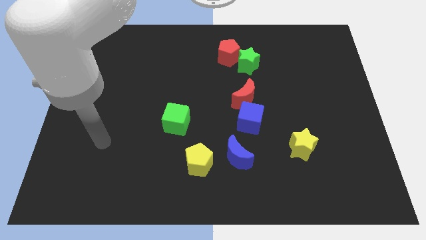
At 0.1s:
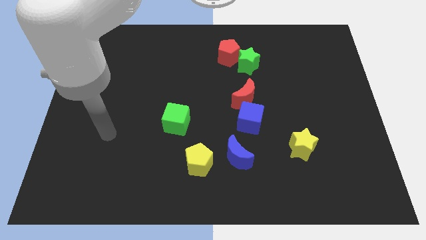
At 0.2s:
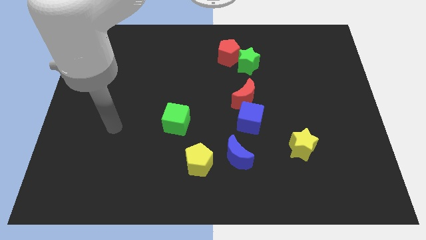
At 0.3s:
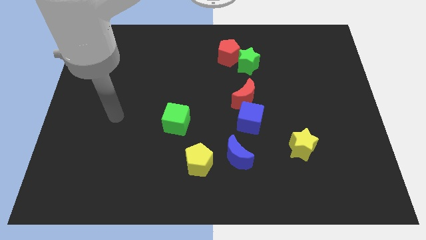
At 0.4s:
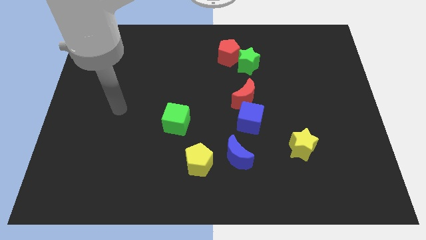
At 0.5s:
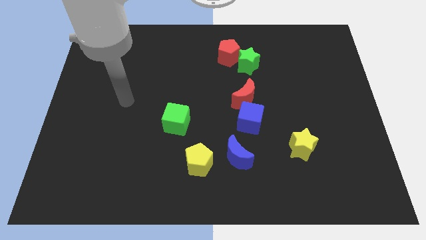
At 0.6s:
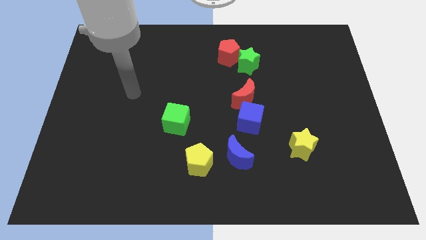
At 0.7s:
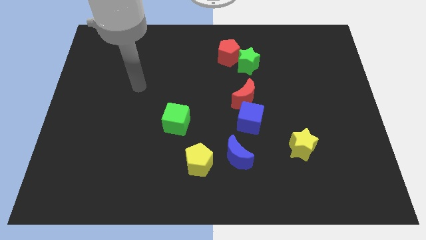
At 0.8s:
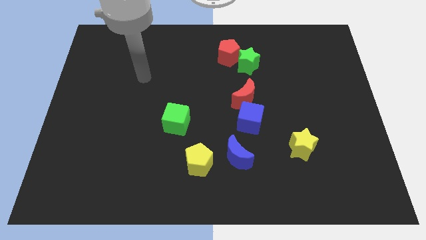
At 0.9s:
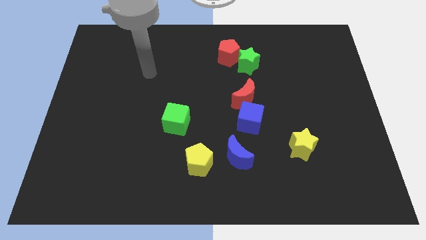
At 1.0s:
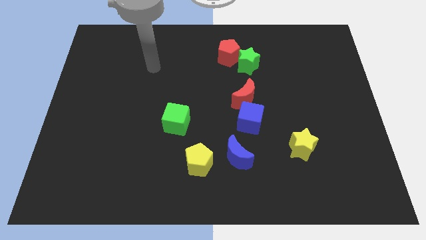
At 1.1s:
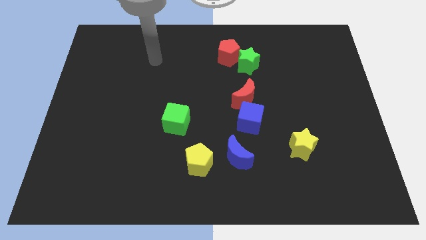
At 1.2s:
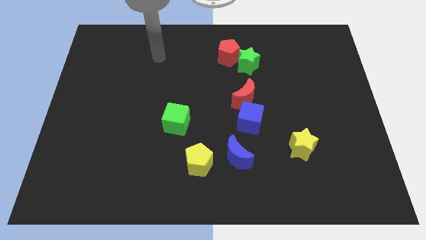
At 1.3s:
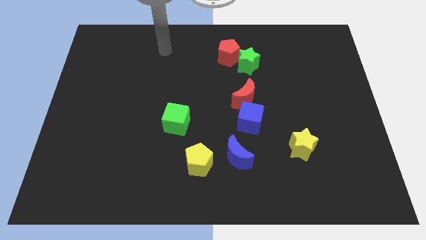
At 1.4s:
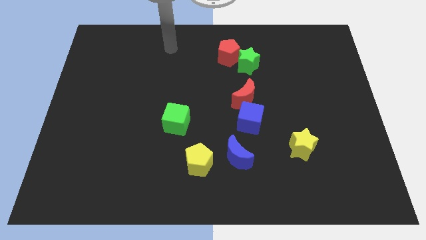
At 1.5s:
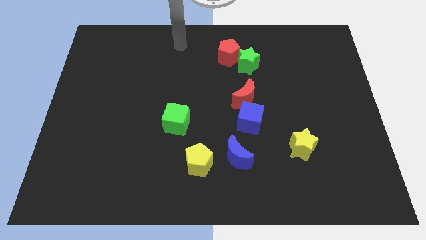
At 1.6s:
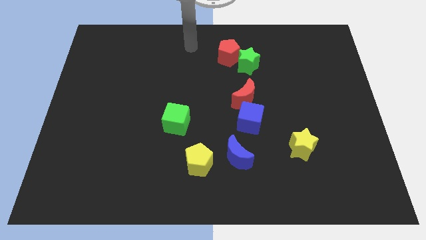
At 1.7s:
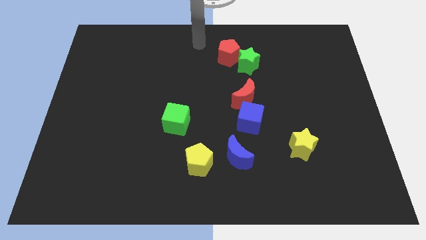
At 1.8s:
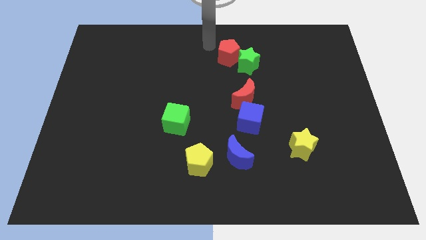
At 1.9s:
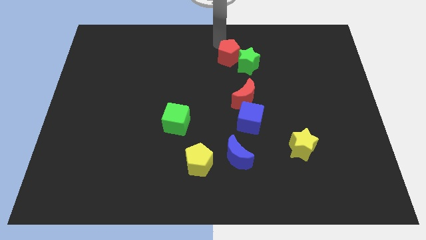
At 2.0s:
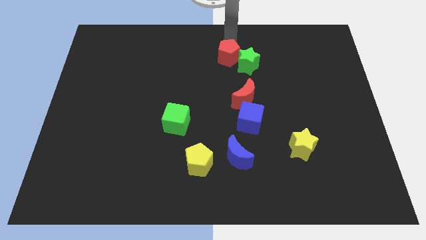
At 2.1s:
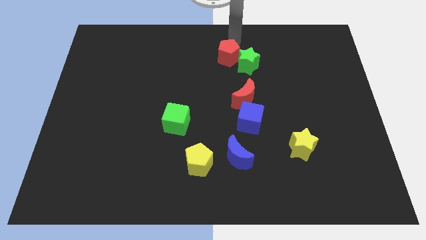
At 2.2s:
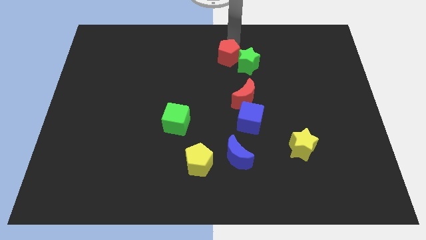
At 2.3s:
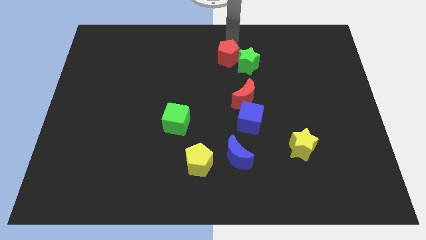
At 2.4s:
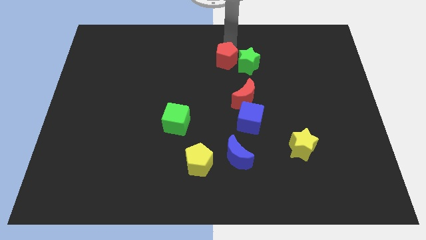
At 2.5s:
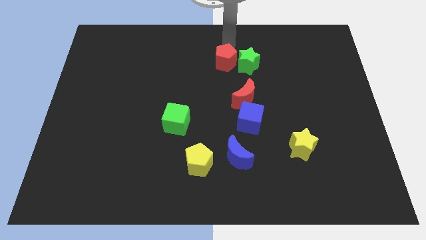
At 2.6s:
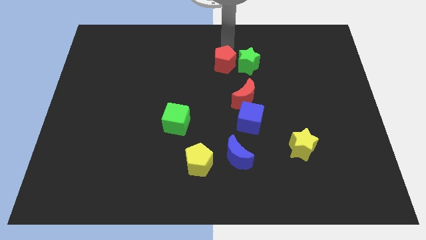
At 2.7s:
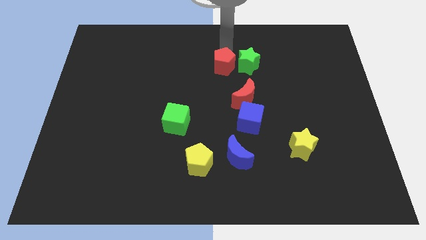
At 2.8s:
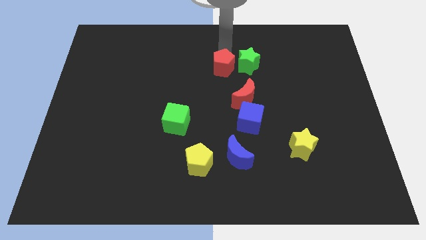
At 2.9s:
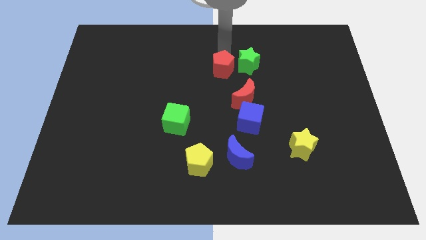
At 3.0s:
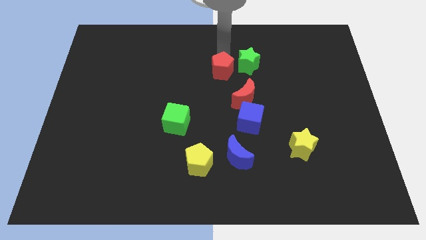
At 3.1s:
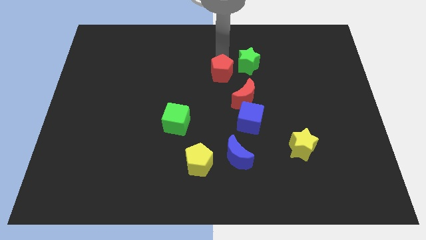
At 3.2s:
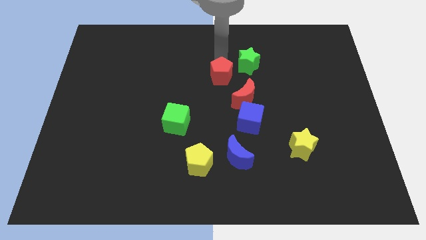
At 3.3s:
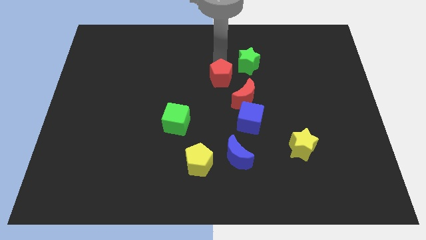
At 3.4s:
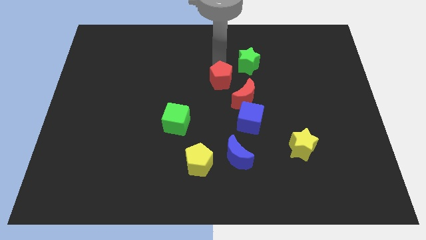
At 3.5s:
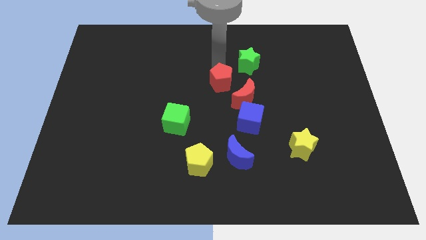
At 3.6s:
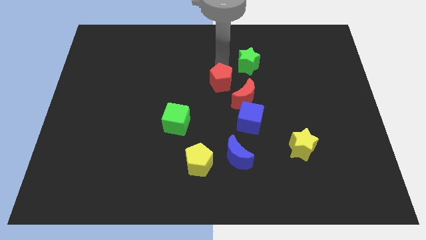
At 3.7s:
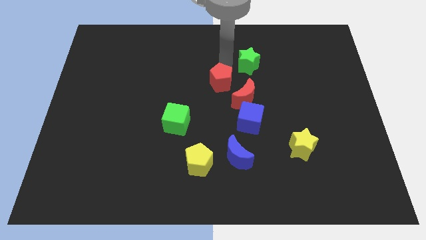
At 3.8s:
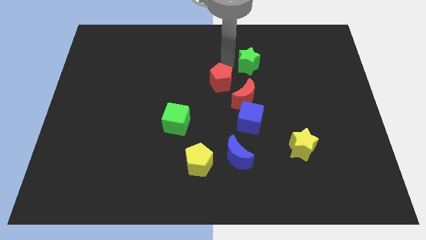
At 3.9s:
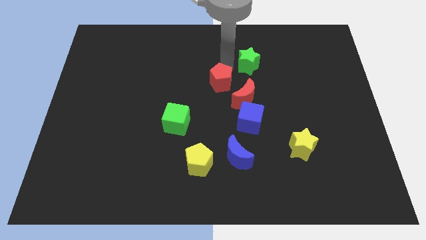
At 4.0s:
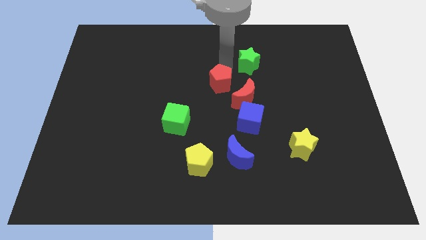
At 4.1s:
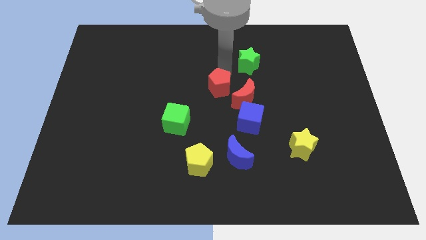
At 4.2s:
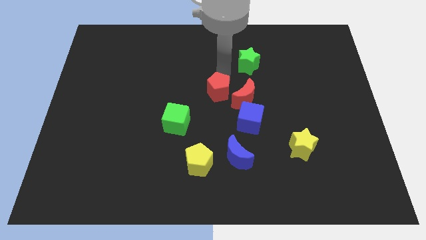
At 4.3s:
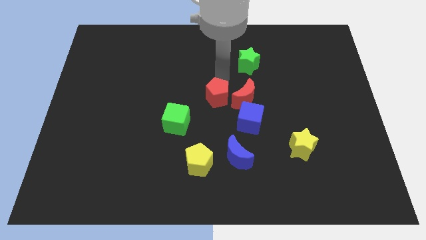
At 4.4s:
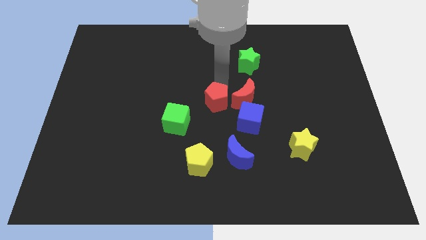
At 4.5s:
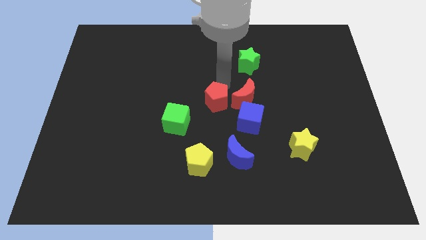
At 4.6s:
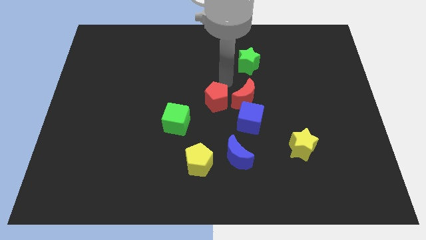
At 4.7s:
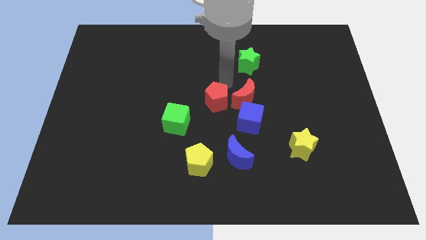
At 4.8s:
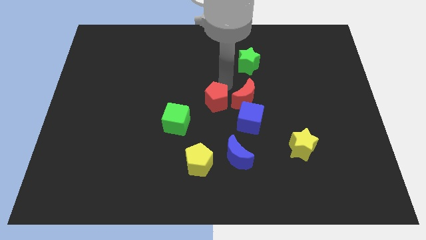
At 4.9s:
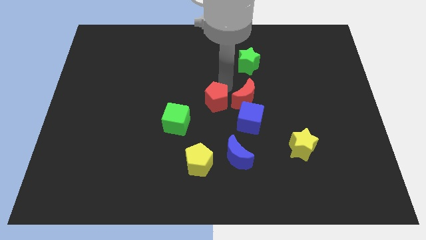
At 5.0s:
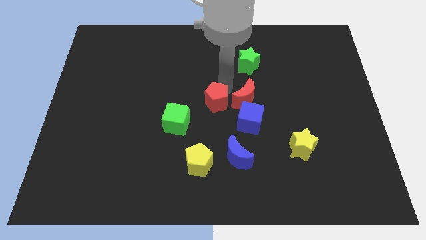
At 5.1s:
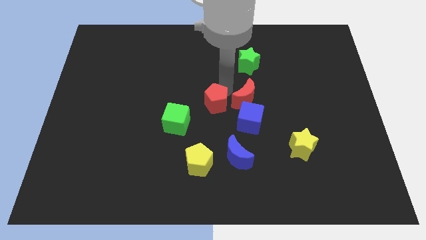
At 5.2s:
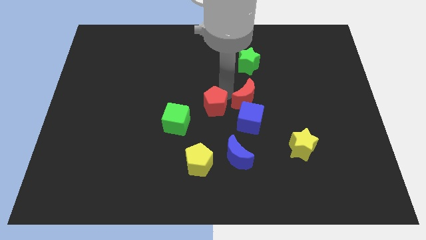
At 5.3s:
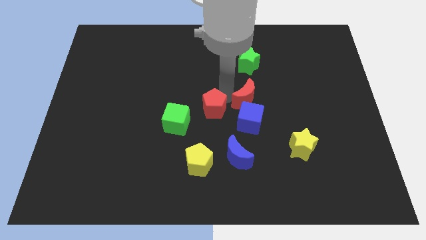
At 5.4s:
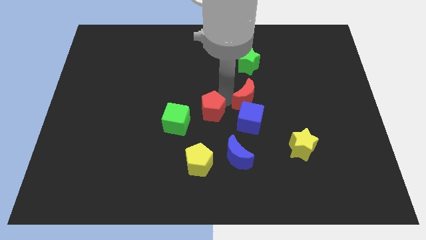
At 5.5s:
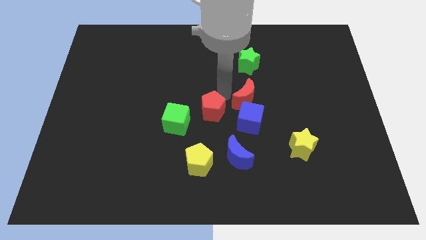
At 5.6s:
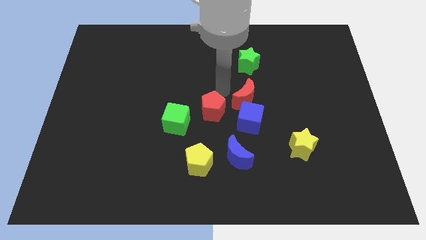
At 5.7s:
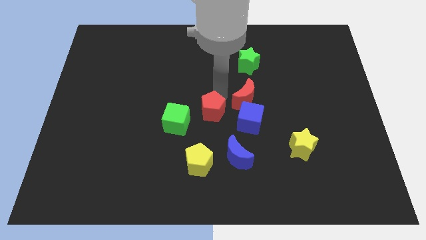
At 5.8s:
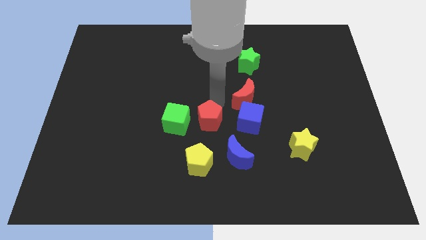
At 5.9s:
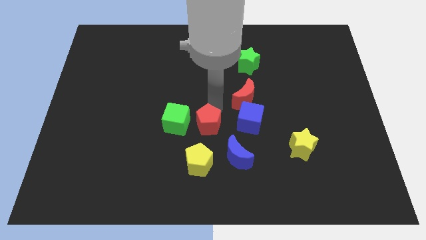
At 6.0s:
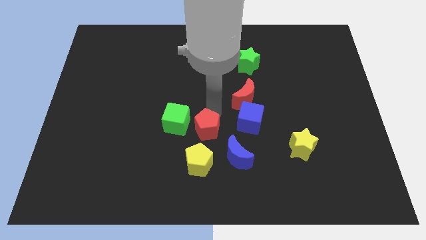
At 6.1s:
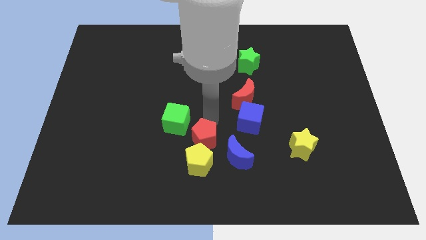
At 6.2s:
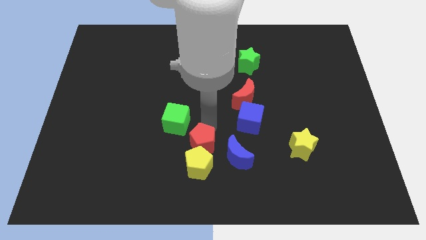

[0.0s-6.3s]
slide the red pentagon to the yellow pentagon

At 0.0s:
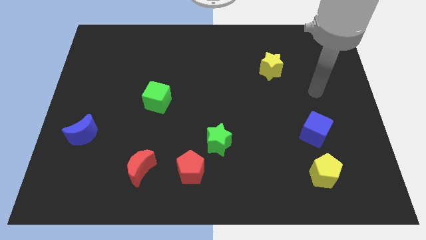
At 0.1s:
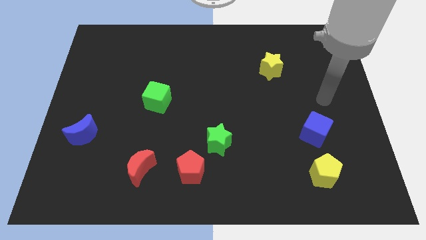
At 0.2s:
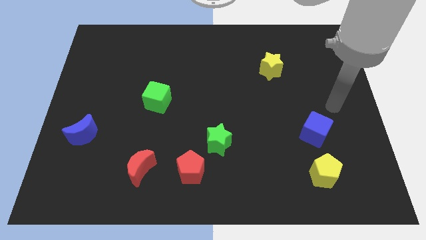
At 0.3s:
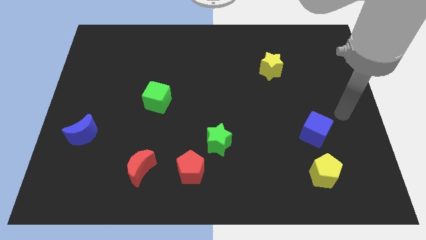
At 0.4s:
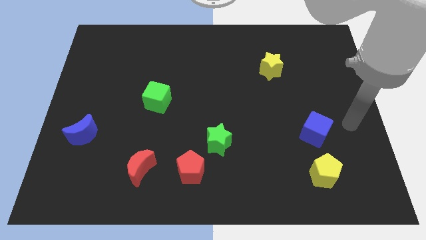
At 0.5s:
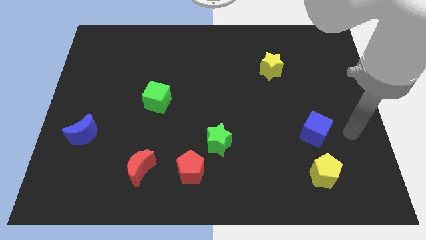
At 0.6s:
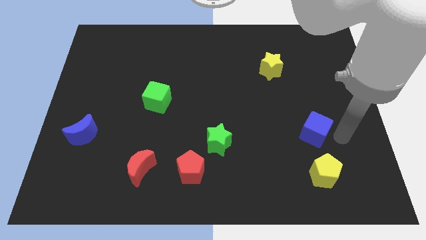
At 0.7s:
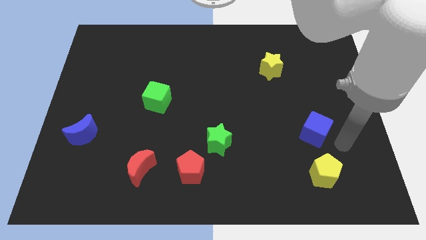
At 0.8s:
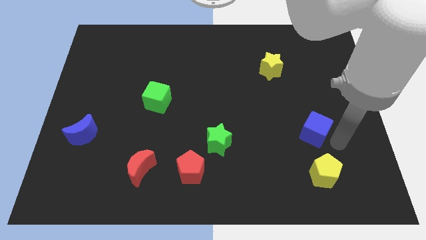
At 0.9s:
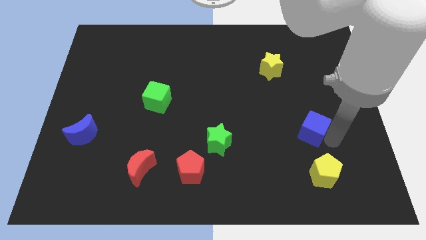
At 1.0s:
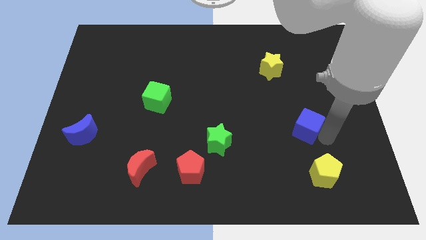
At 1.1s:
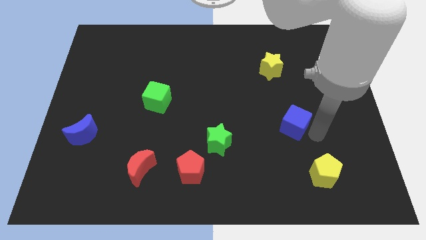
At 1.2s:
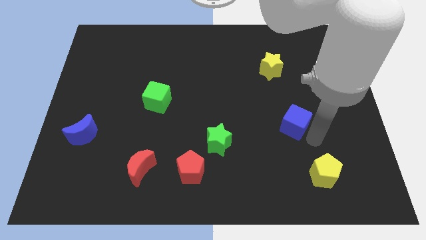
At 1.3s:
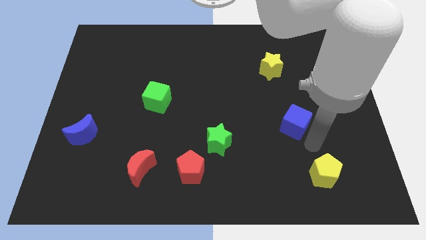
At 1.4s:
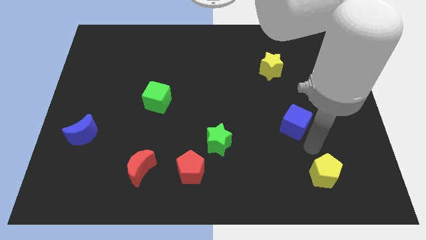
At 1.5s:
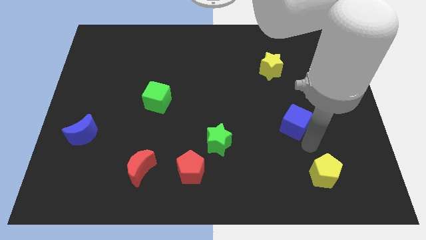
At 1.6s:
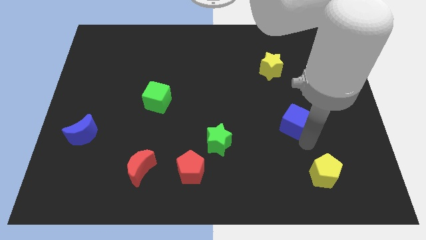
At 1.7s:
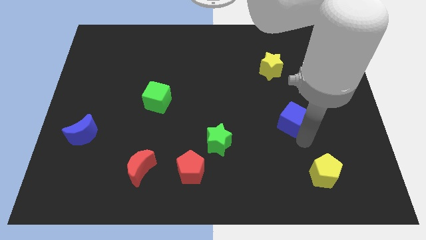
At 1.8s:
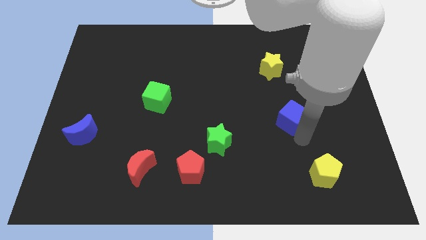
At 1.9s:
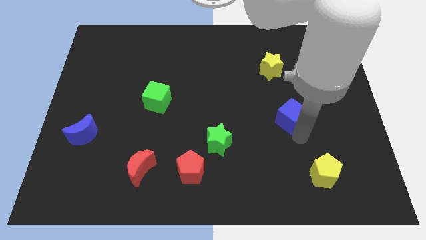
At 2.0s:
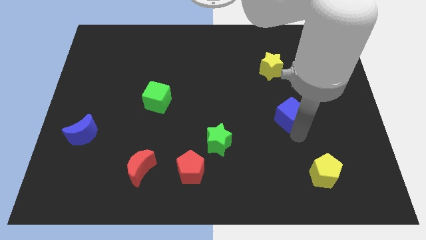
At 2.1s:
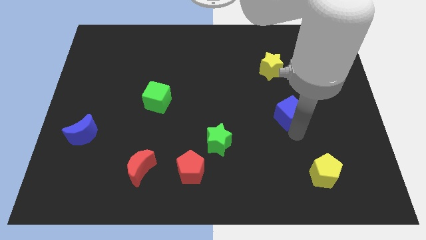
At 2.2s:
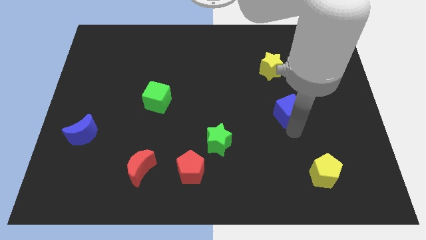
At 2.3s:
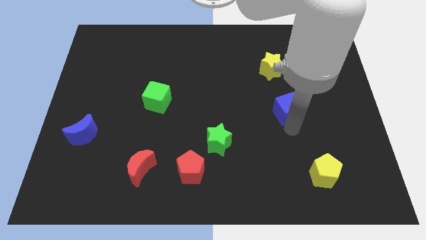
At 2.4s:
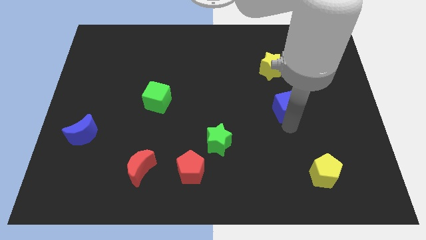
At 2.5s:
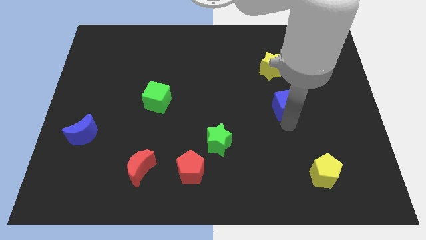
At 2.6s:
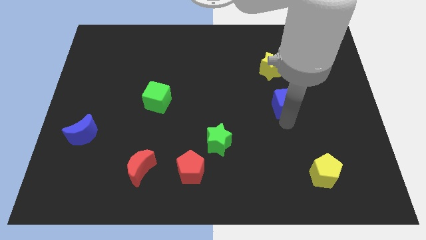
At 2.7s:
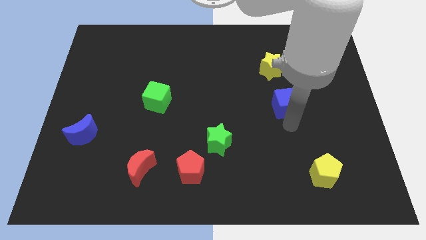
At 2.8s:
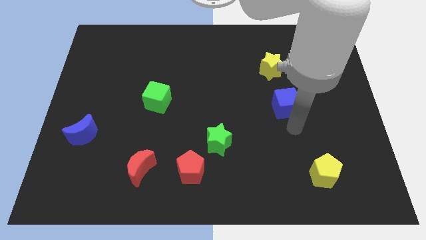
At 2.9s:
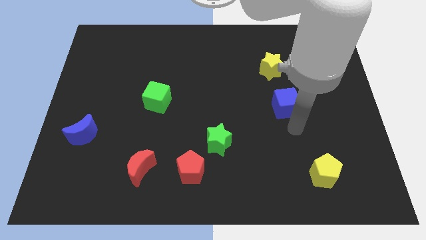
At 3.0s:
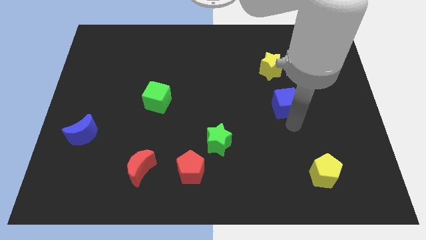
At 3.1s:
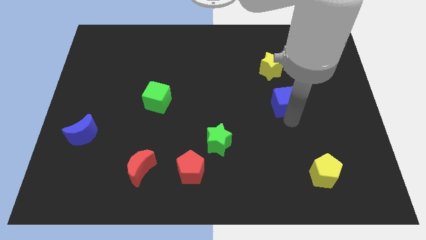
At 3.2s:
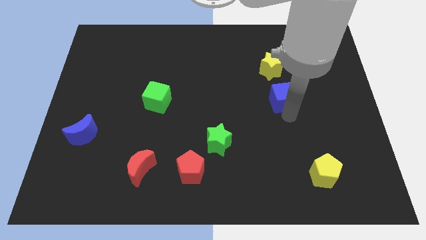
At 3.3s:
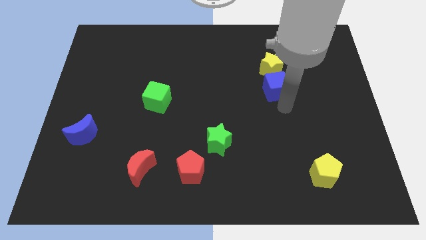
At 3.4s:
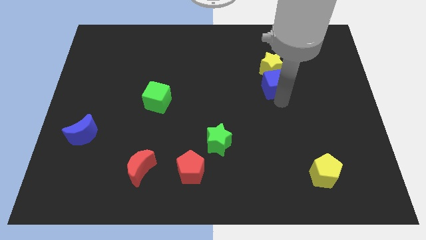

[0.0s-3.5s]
put the blue cube towards the yellow star
